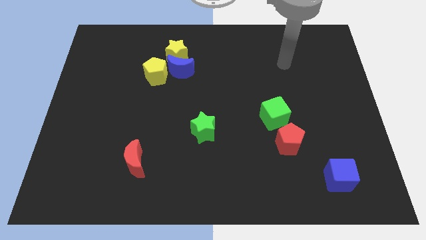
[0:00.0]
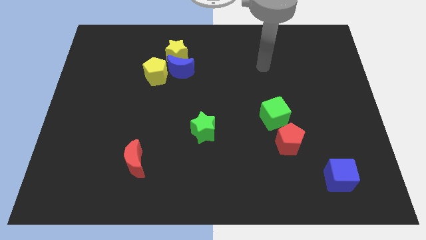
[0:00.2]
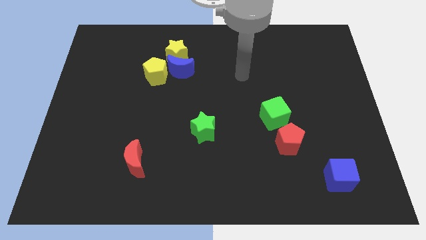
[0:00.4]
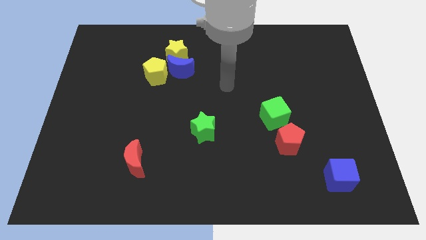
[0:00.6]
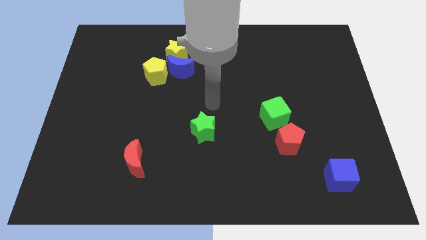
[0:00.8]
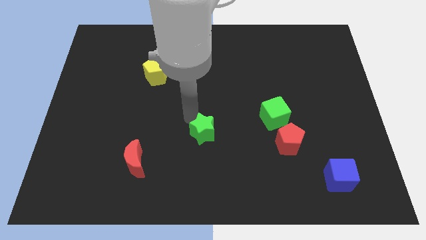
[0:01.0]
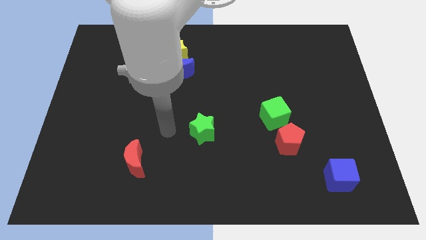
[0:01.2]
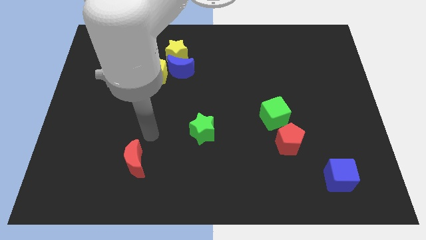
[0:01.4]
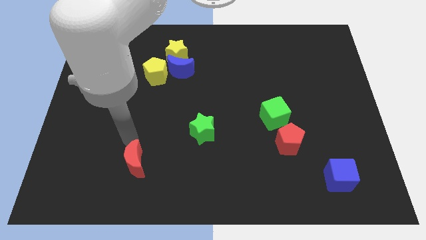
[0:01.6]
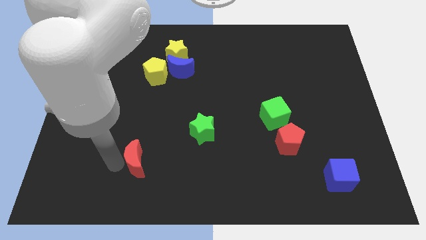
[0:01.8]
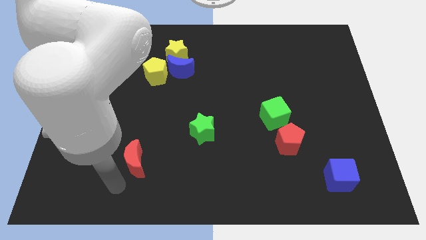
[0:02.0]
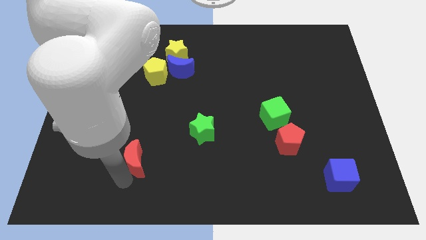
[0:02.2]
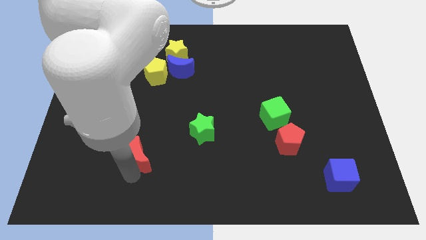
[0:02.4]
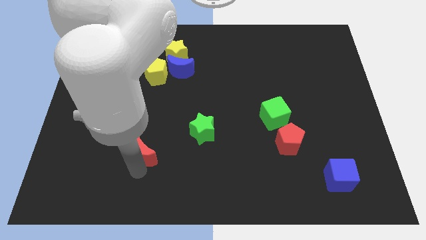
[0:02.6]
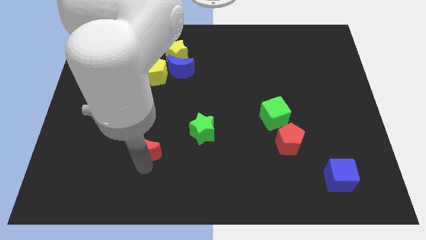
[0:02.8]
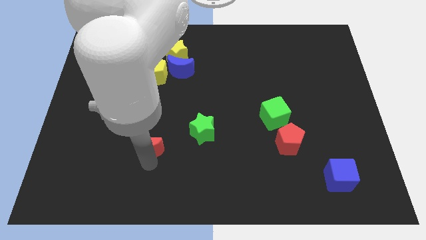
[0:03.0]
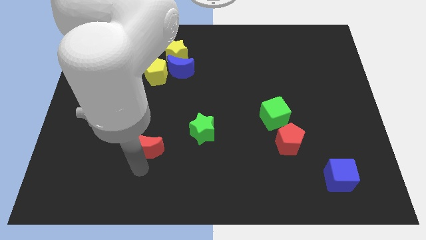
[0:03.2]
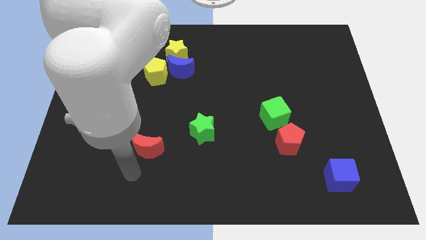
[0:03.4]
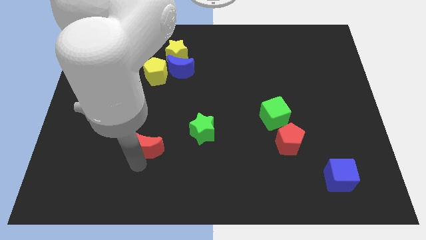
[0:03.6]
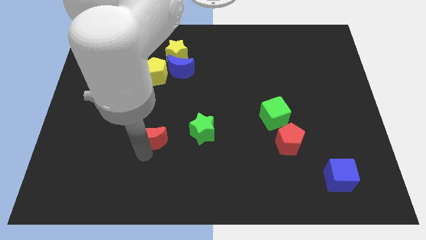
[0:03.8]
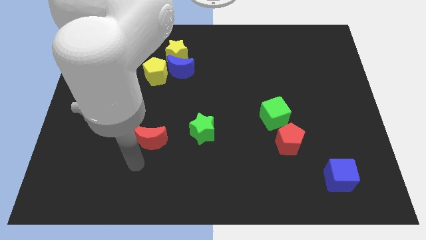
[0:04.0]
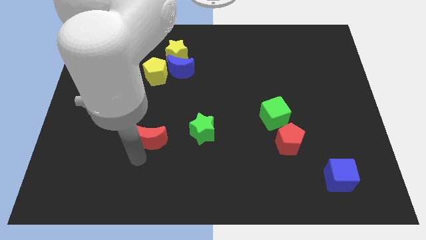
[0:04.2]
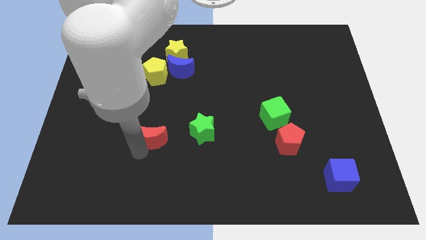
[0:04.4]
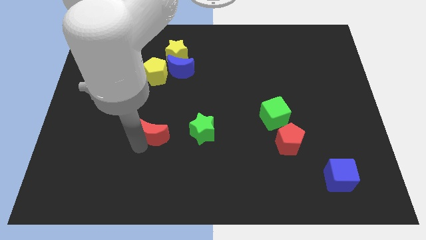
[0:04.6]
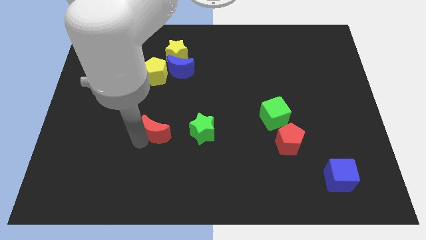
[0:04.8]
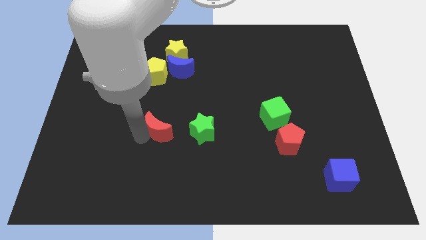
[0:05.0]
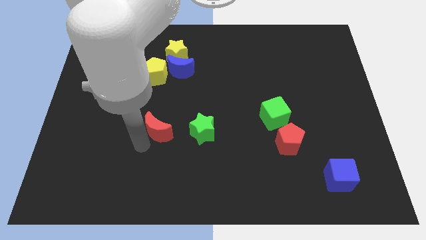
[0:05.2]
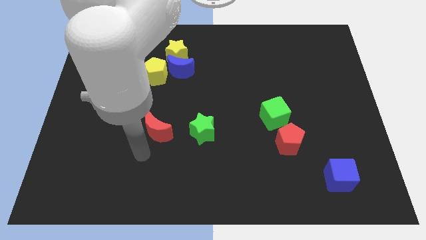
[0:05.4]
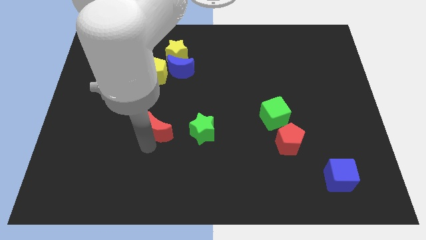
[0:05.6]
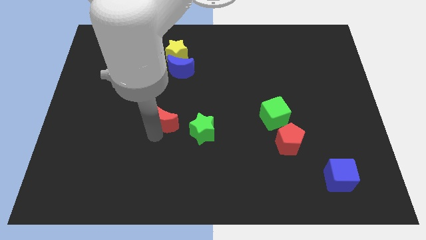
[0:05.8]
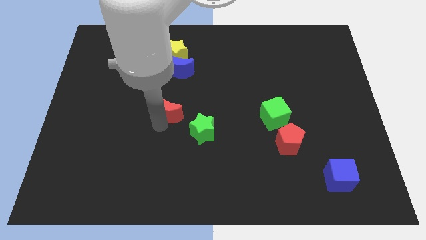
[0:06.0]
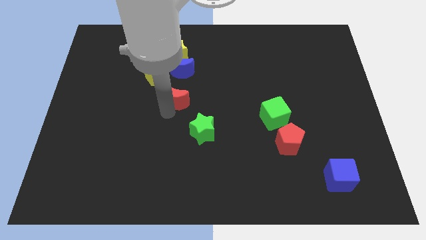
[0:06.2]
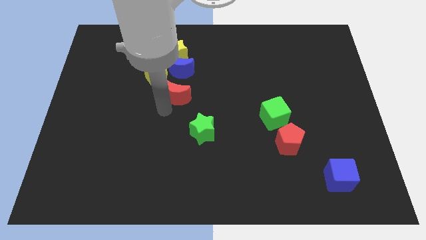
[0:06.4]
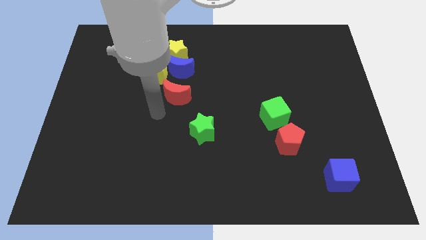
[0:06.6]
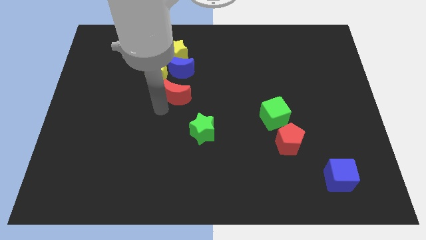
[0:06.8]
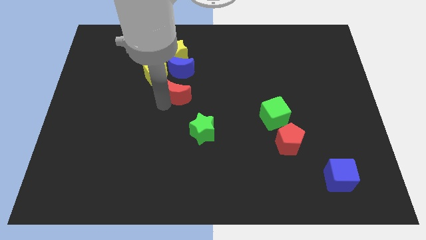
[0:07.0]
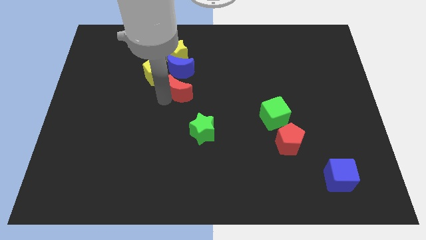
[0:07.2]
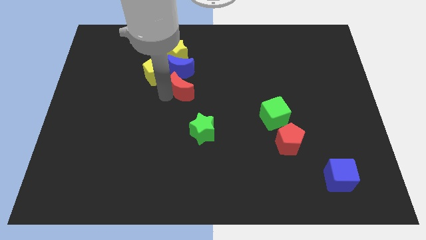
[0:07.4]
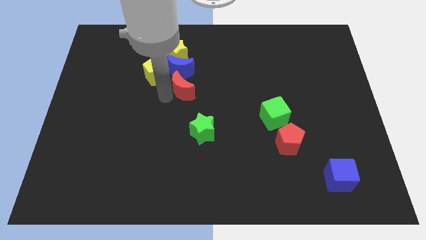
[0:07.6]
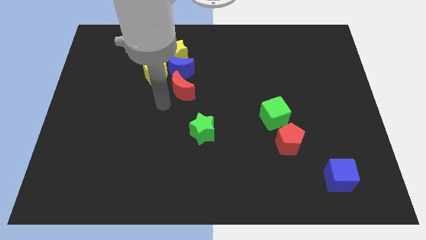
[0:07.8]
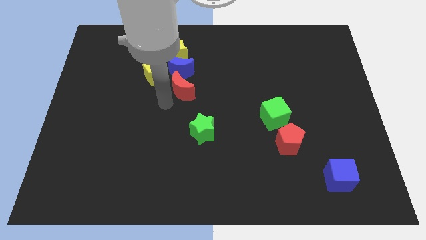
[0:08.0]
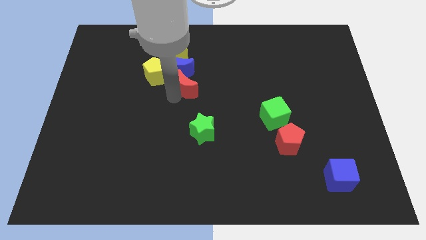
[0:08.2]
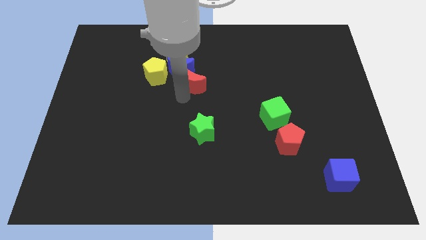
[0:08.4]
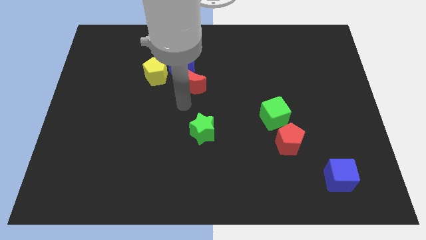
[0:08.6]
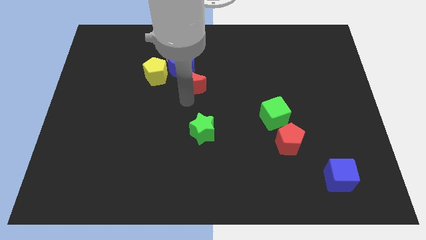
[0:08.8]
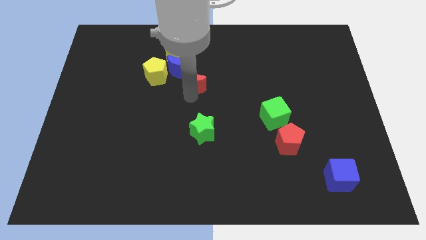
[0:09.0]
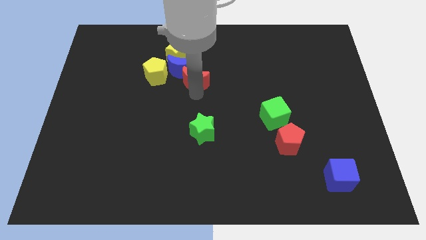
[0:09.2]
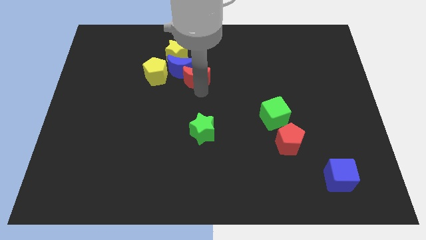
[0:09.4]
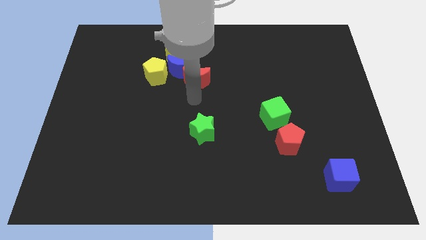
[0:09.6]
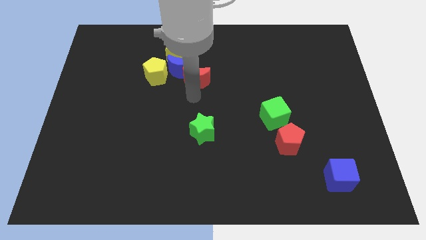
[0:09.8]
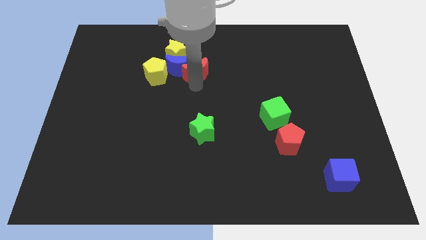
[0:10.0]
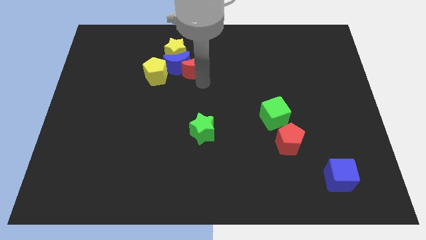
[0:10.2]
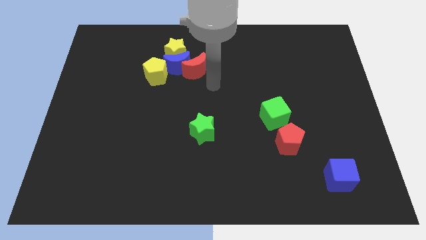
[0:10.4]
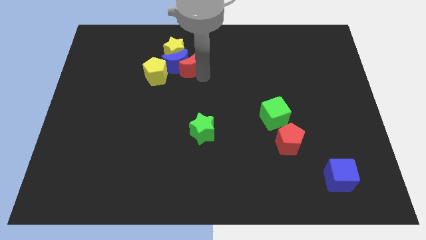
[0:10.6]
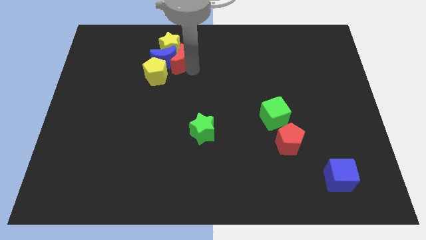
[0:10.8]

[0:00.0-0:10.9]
move the red moon close to the yellow star
